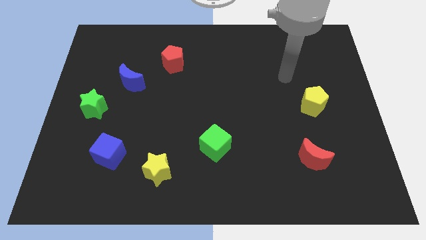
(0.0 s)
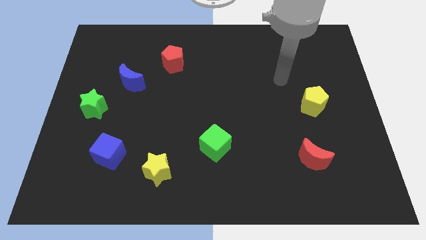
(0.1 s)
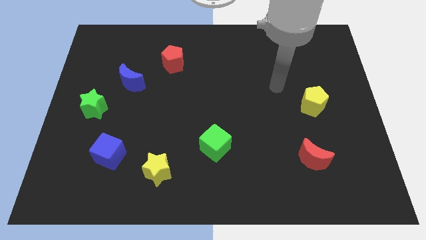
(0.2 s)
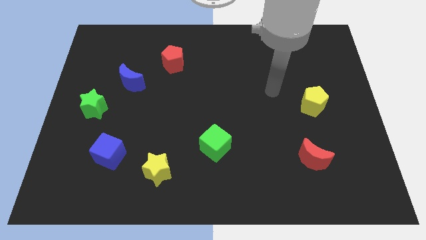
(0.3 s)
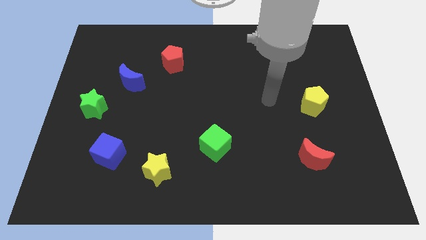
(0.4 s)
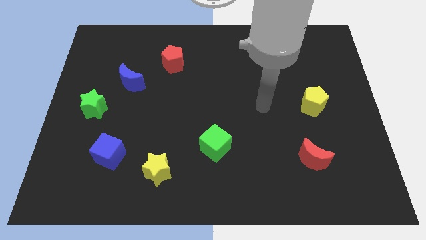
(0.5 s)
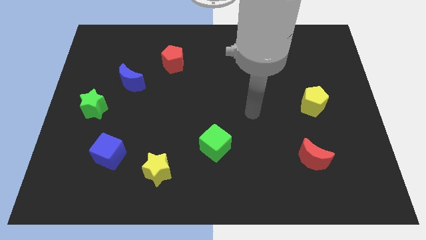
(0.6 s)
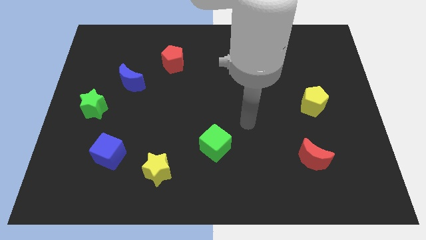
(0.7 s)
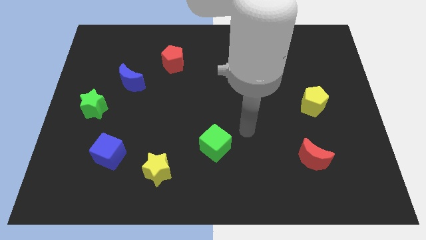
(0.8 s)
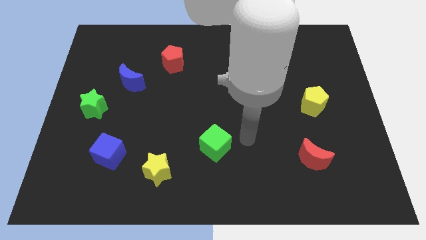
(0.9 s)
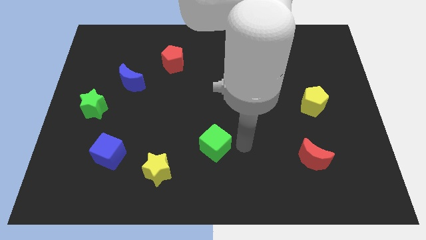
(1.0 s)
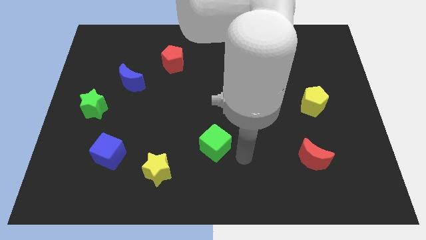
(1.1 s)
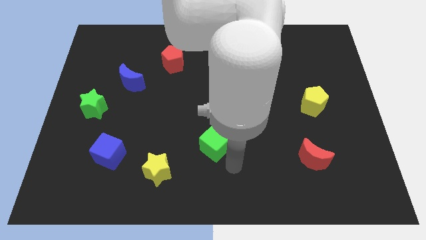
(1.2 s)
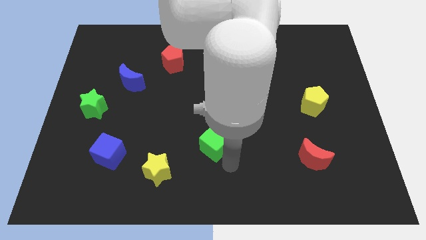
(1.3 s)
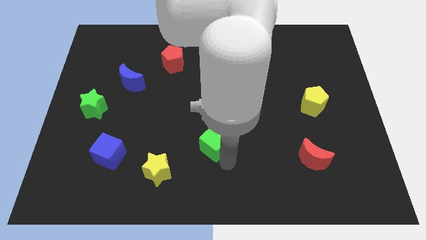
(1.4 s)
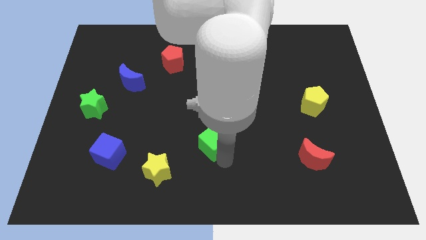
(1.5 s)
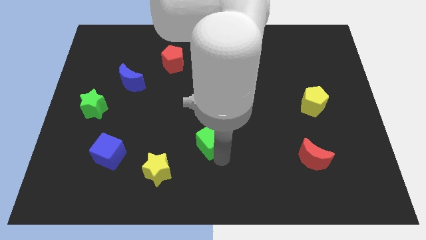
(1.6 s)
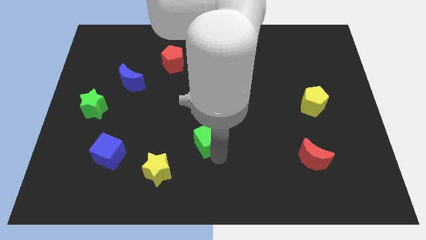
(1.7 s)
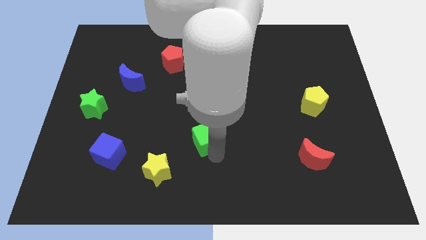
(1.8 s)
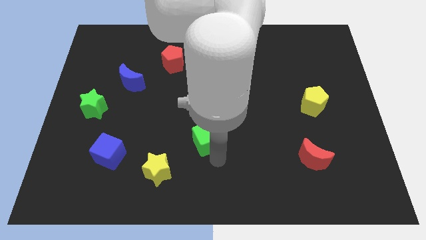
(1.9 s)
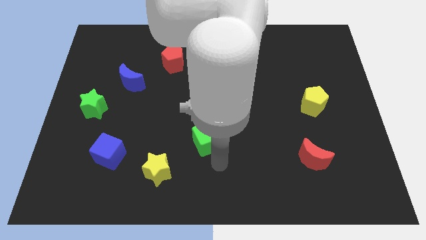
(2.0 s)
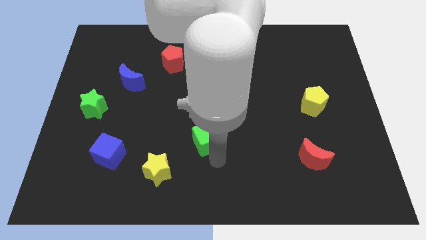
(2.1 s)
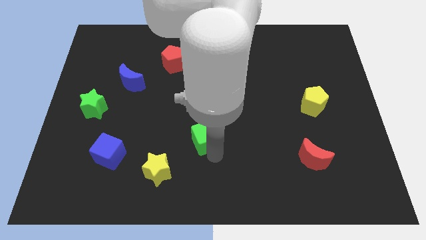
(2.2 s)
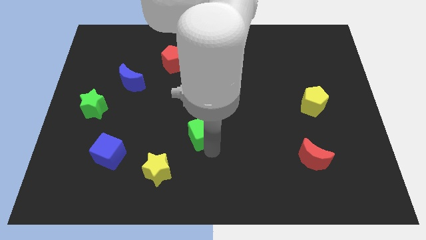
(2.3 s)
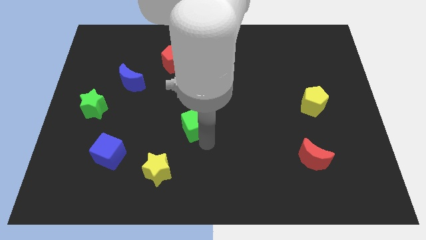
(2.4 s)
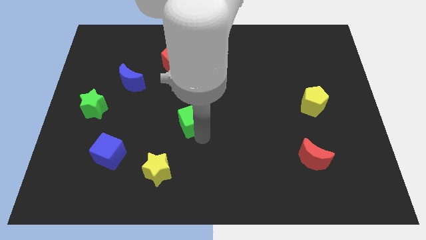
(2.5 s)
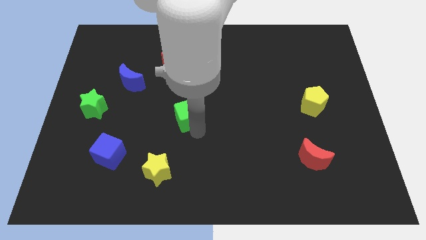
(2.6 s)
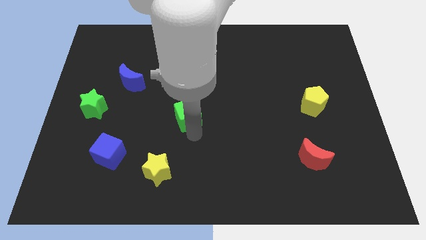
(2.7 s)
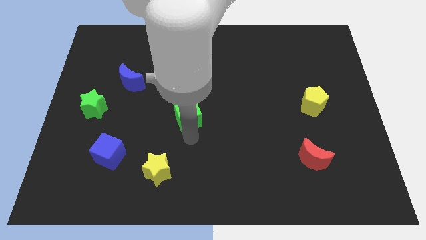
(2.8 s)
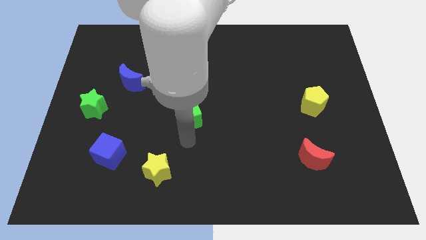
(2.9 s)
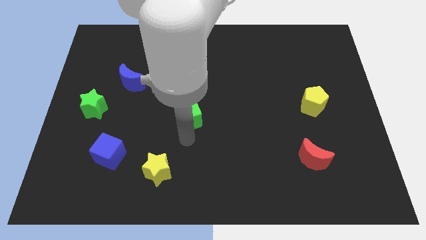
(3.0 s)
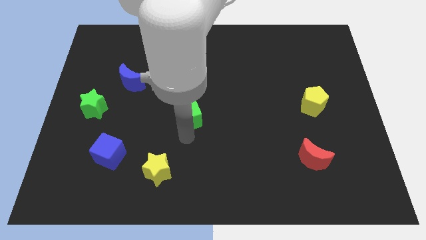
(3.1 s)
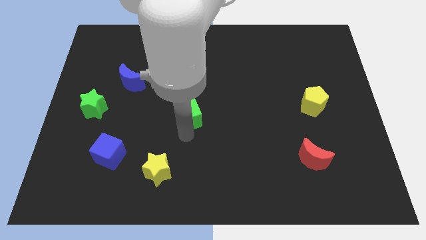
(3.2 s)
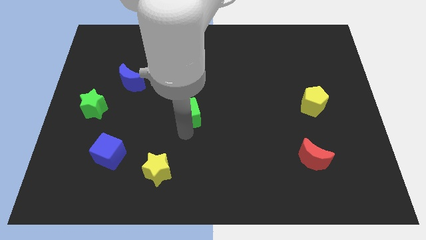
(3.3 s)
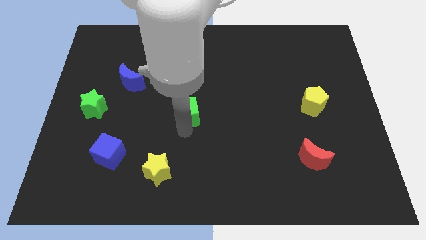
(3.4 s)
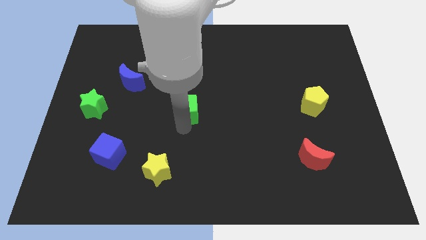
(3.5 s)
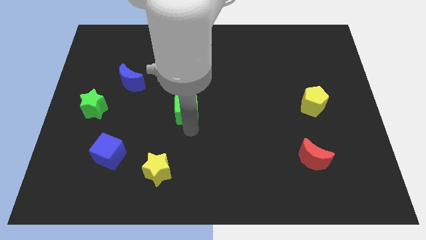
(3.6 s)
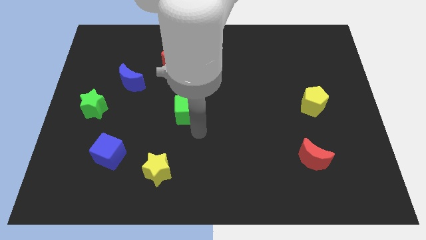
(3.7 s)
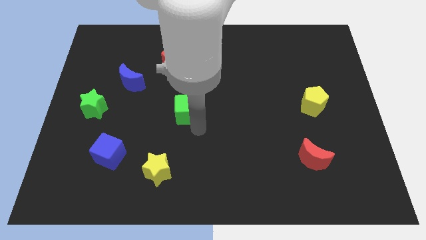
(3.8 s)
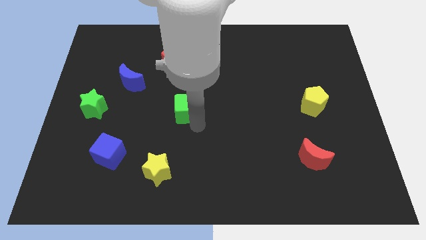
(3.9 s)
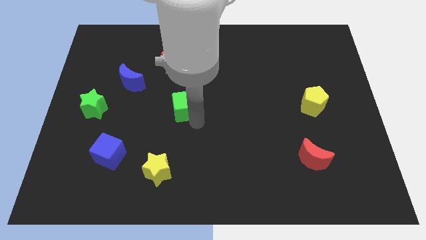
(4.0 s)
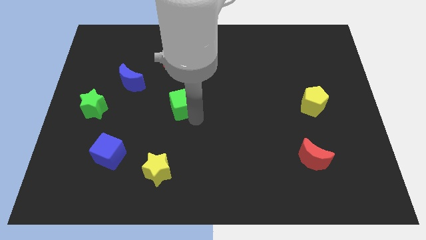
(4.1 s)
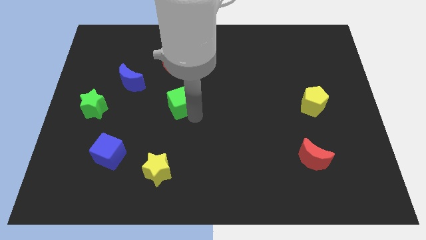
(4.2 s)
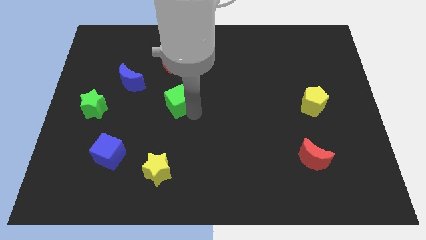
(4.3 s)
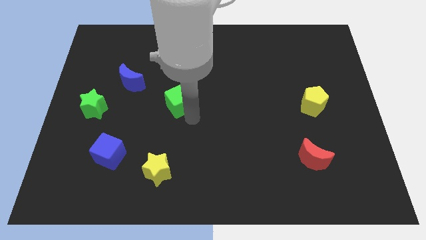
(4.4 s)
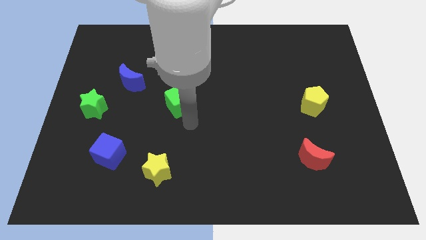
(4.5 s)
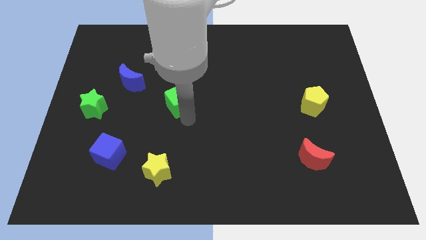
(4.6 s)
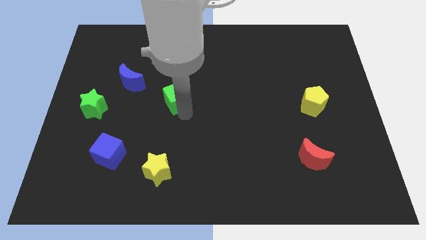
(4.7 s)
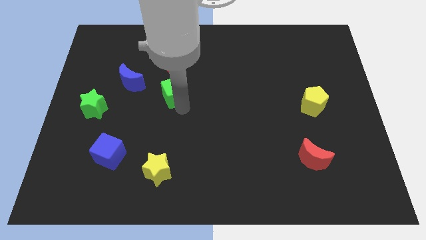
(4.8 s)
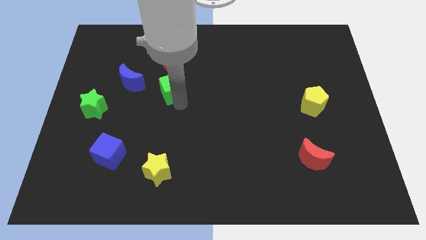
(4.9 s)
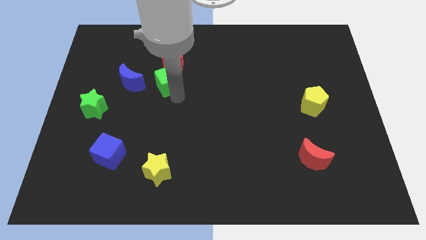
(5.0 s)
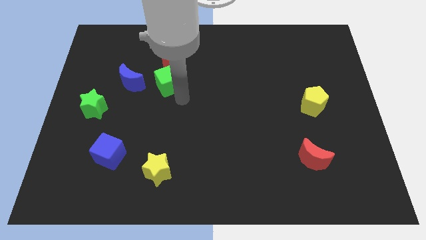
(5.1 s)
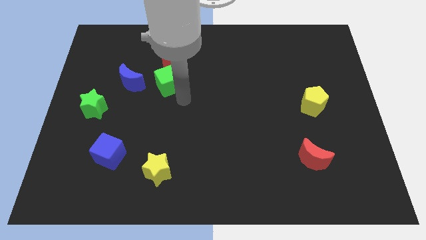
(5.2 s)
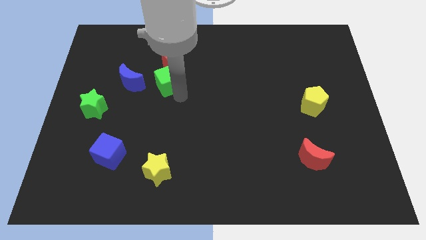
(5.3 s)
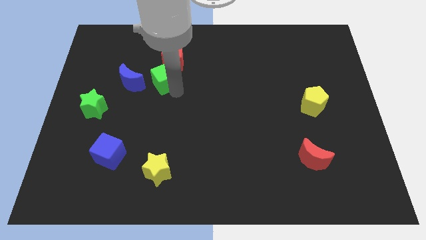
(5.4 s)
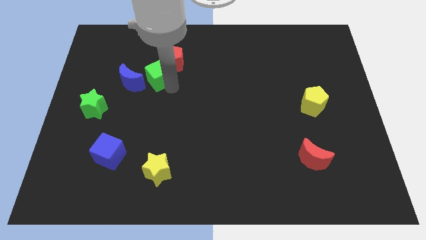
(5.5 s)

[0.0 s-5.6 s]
move the green cube to the top right side of the blue moon

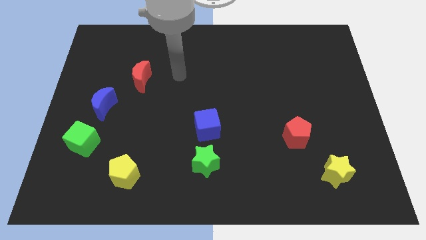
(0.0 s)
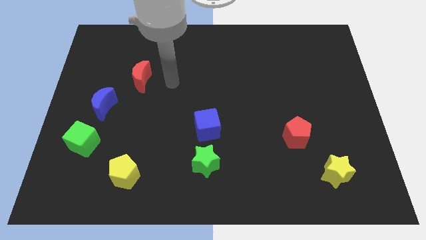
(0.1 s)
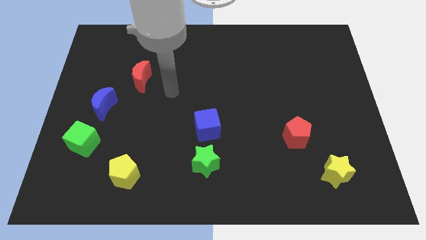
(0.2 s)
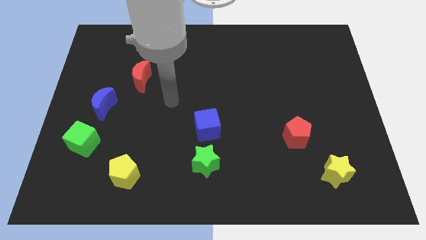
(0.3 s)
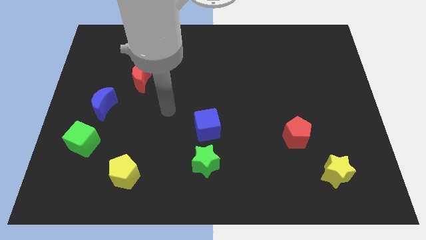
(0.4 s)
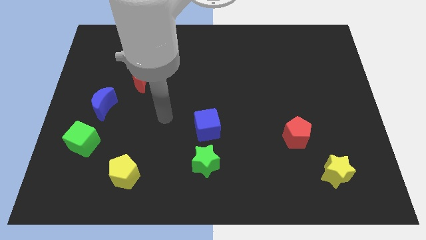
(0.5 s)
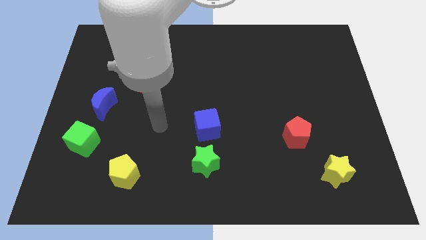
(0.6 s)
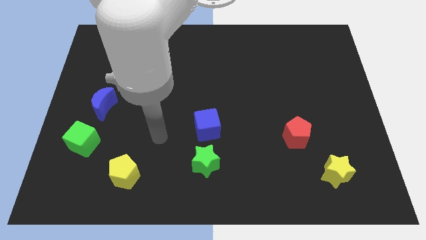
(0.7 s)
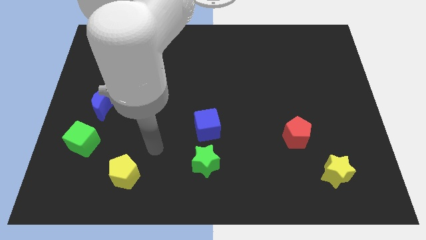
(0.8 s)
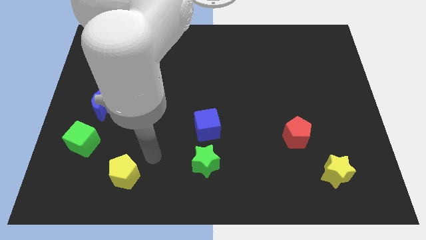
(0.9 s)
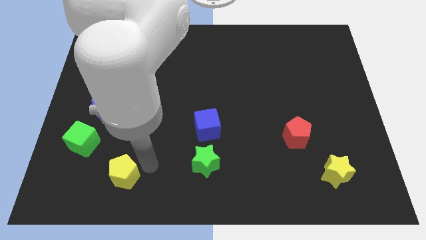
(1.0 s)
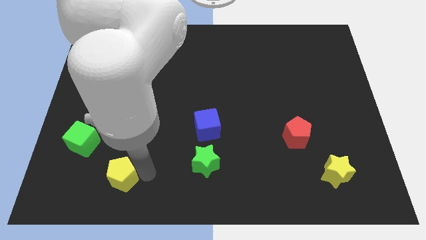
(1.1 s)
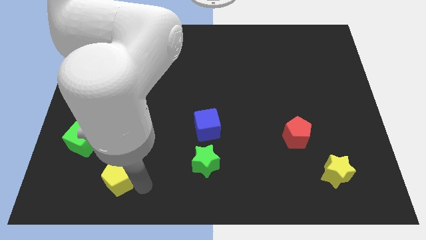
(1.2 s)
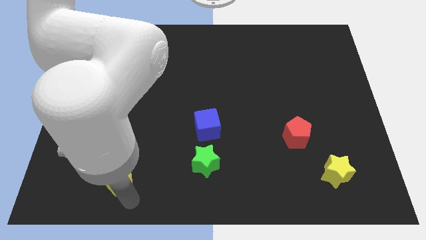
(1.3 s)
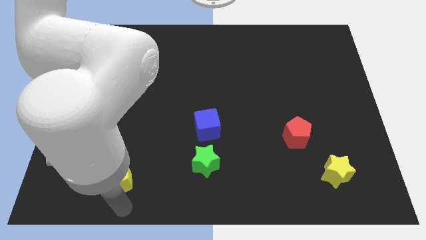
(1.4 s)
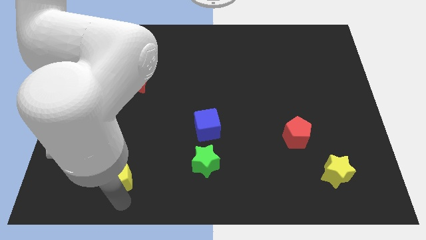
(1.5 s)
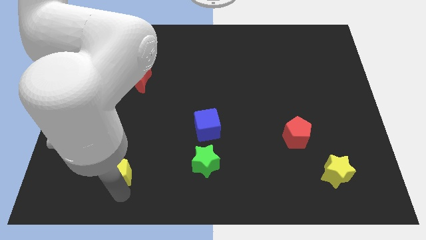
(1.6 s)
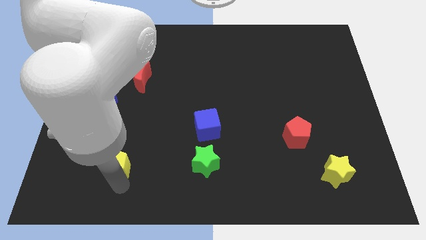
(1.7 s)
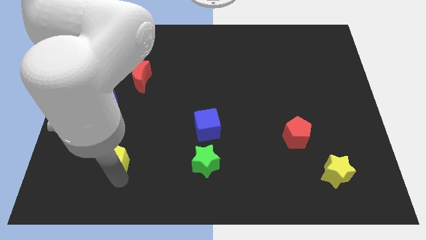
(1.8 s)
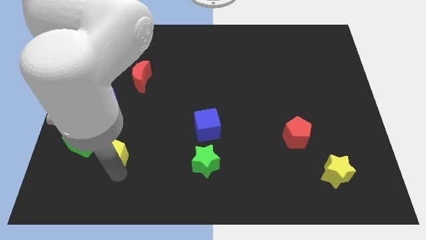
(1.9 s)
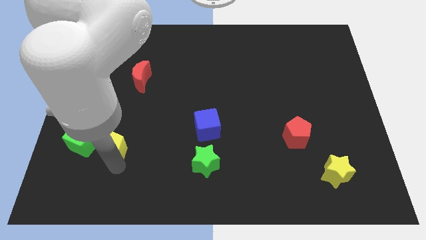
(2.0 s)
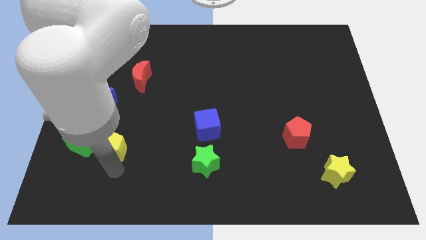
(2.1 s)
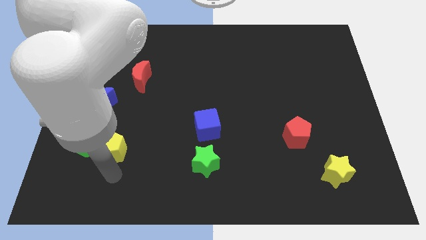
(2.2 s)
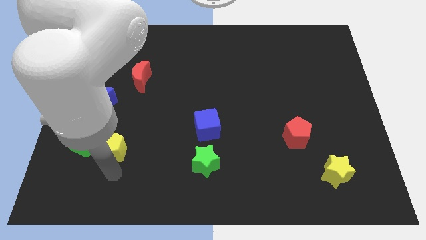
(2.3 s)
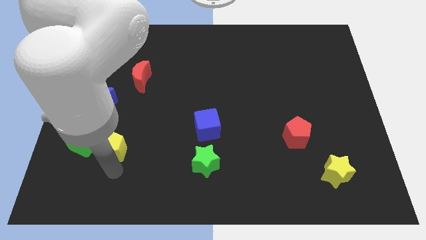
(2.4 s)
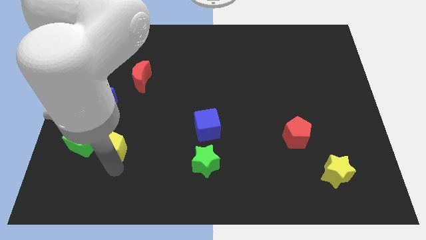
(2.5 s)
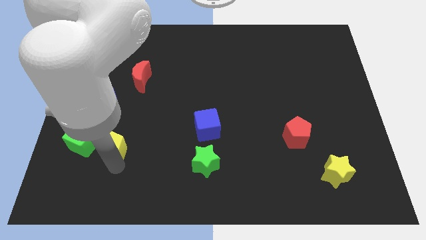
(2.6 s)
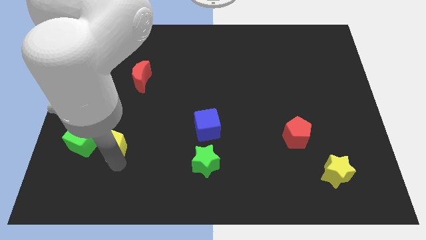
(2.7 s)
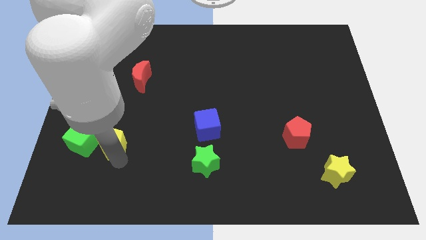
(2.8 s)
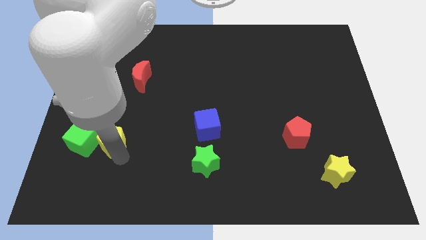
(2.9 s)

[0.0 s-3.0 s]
put the yellow pentagon diagonally up and to the right of the green cube

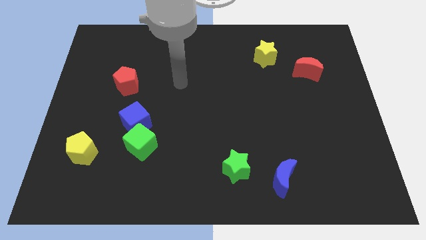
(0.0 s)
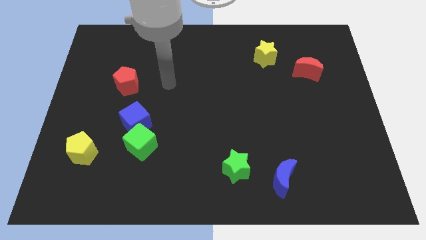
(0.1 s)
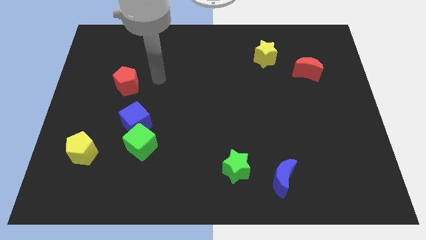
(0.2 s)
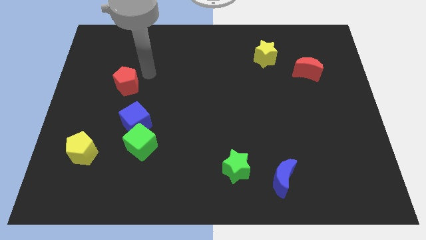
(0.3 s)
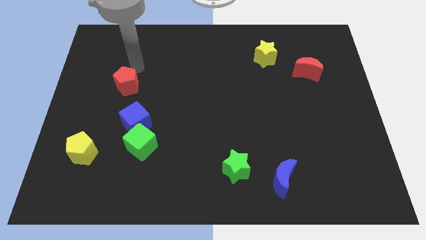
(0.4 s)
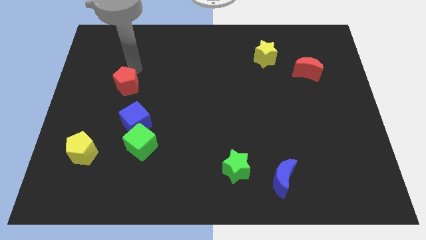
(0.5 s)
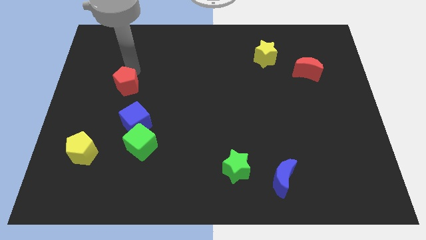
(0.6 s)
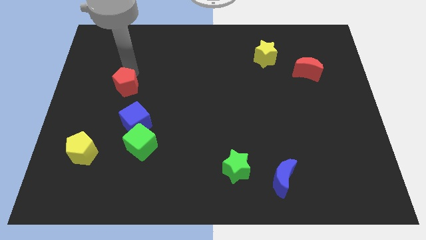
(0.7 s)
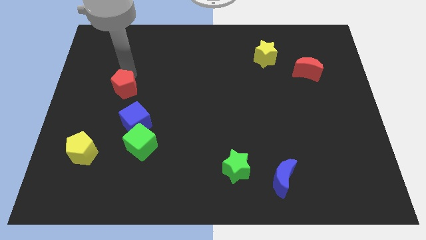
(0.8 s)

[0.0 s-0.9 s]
move the red pentagon diagonally up and to the left of the blue cube
